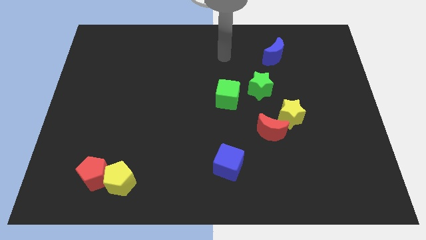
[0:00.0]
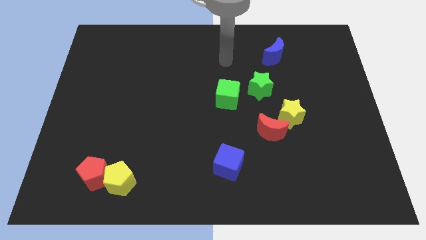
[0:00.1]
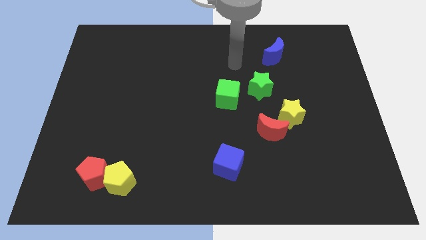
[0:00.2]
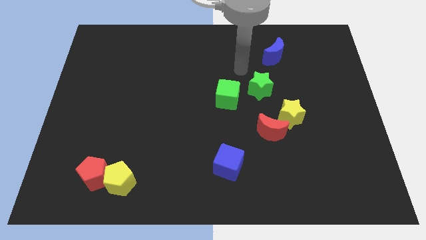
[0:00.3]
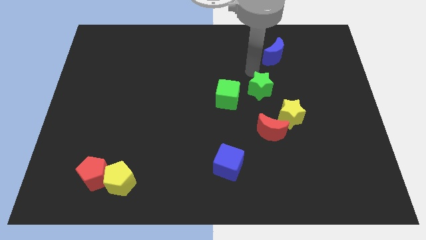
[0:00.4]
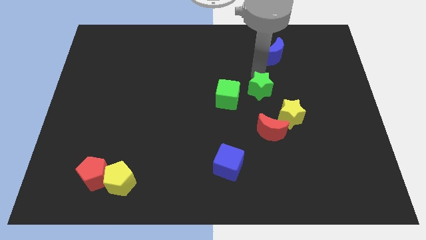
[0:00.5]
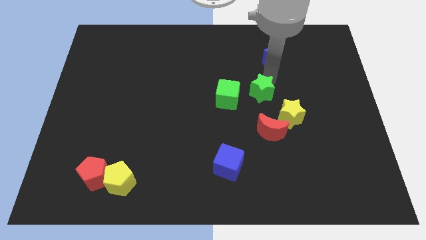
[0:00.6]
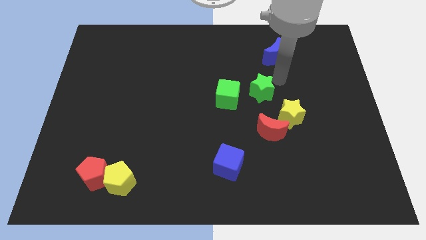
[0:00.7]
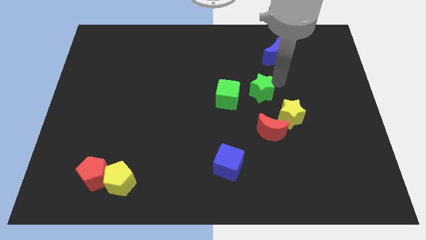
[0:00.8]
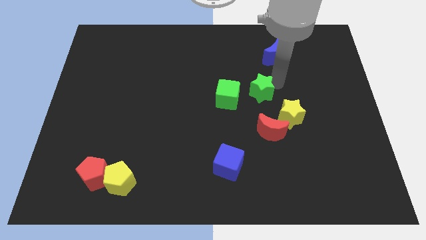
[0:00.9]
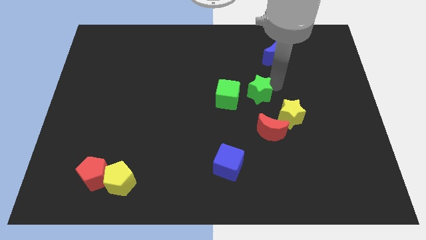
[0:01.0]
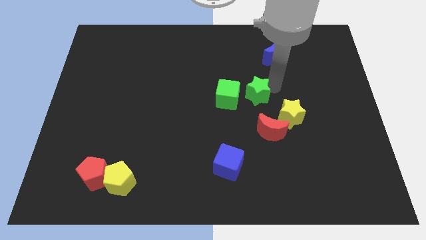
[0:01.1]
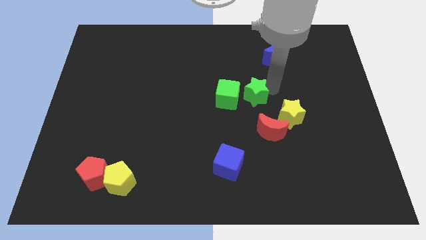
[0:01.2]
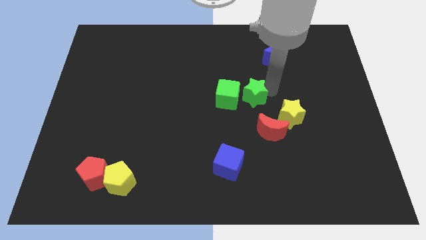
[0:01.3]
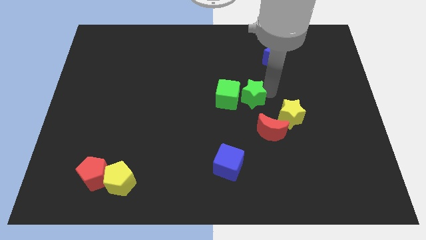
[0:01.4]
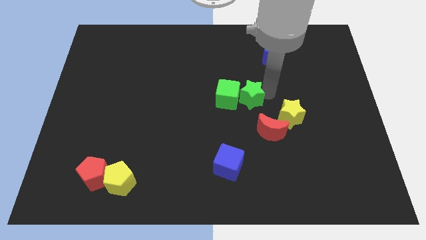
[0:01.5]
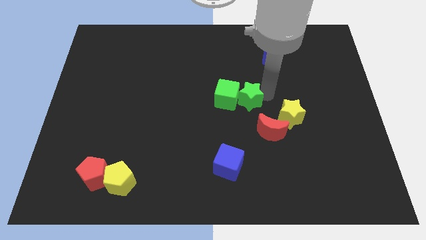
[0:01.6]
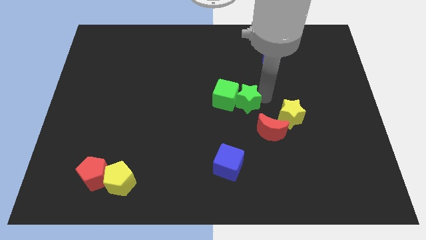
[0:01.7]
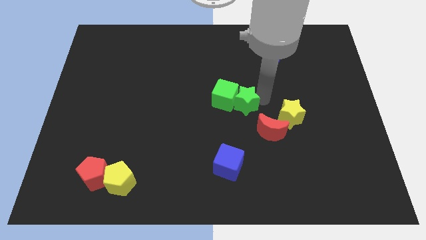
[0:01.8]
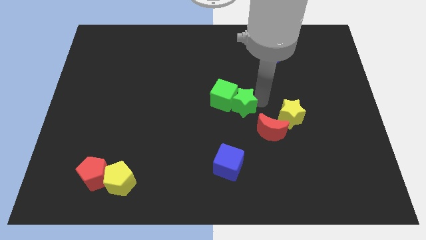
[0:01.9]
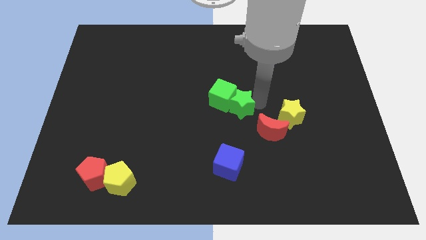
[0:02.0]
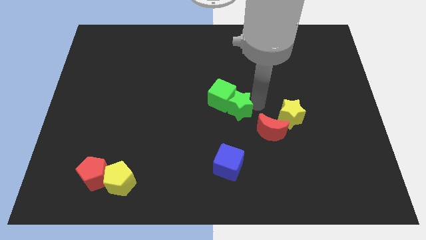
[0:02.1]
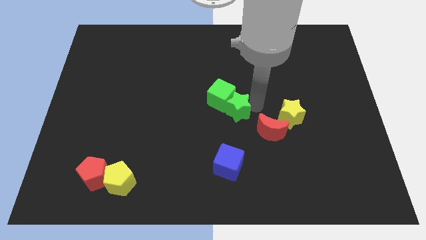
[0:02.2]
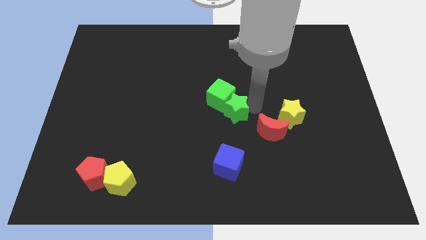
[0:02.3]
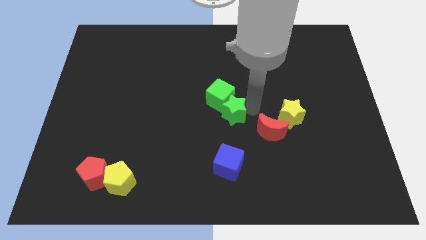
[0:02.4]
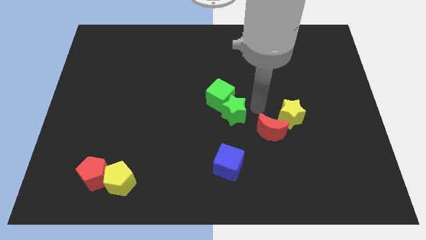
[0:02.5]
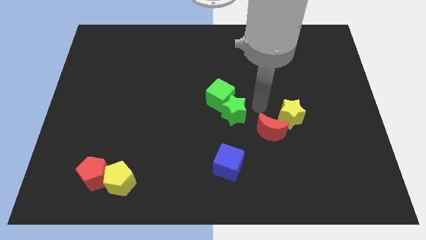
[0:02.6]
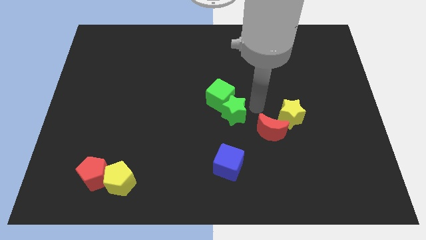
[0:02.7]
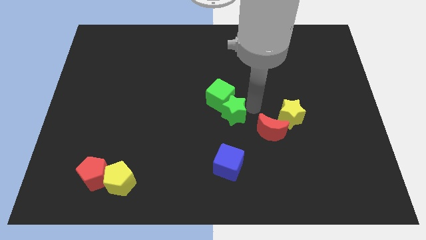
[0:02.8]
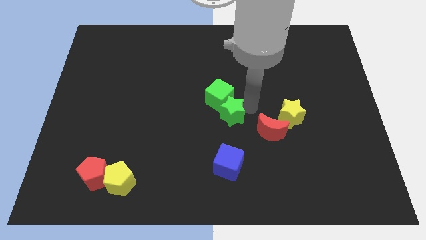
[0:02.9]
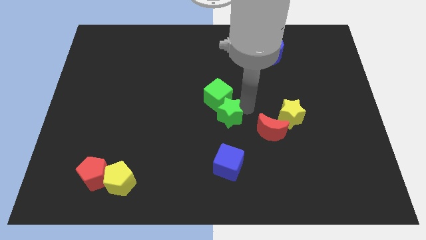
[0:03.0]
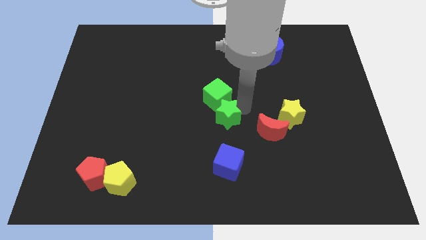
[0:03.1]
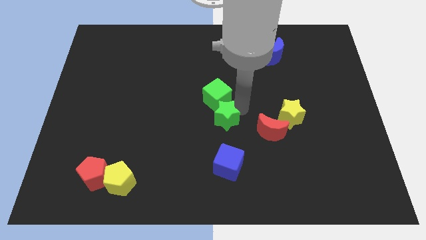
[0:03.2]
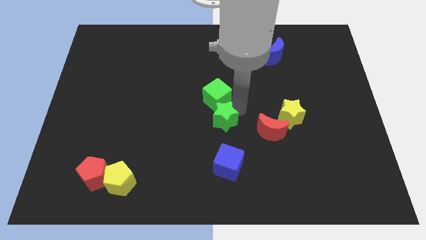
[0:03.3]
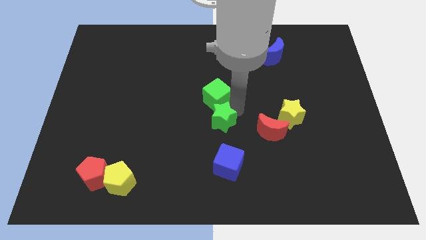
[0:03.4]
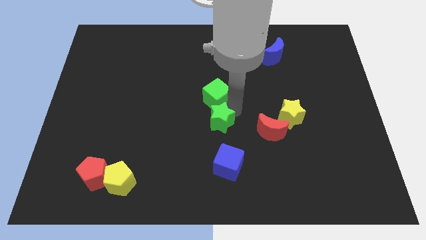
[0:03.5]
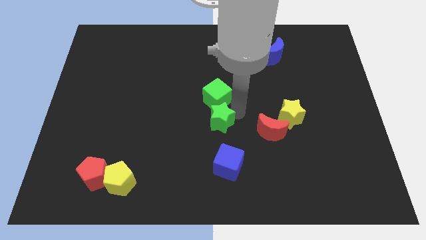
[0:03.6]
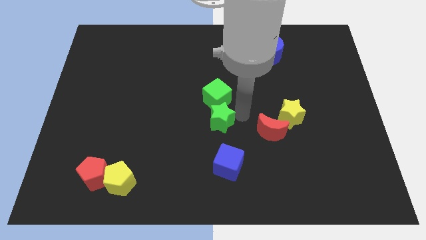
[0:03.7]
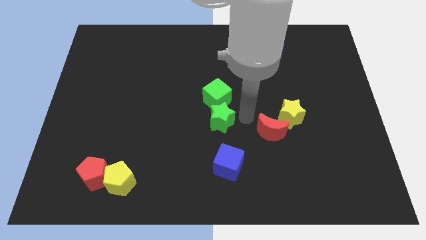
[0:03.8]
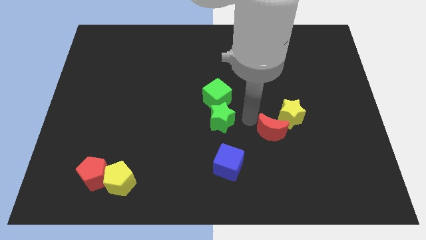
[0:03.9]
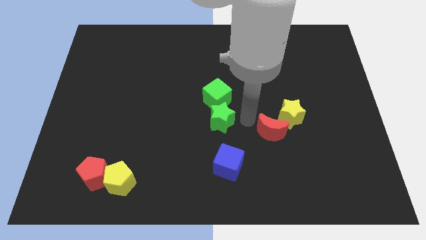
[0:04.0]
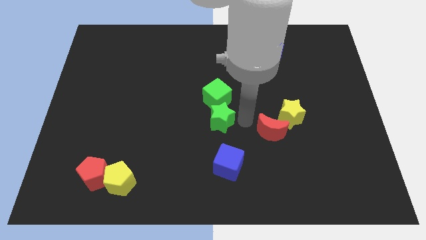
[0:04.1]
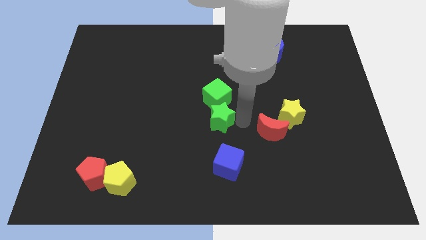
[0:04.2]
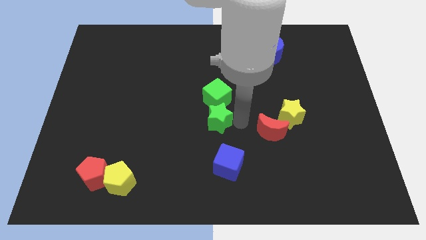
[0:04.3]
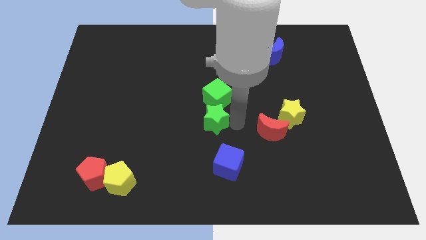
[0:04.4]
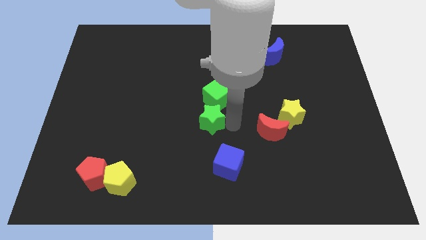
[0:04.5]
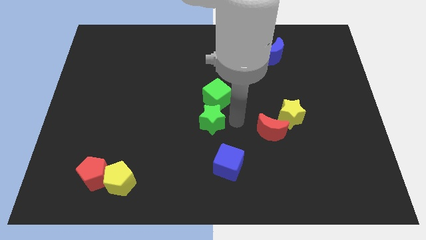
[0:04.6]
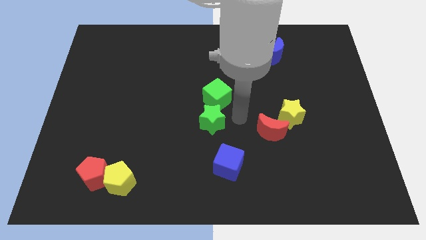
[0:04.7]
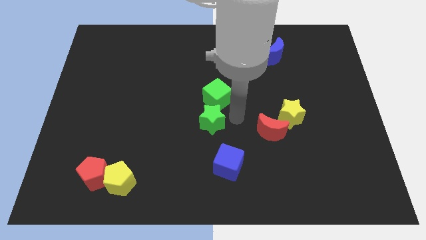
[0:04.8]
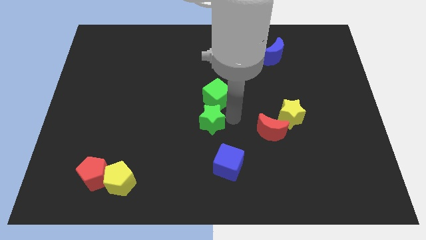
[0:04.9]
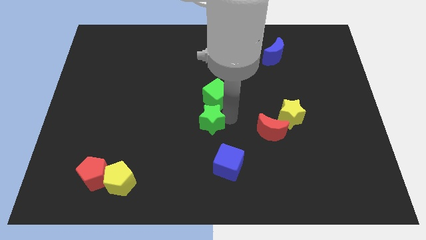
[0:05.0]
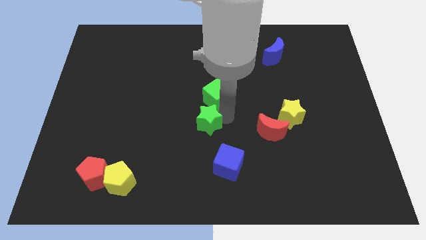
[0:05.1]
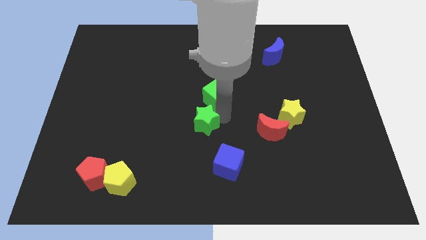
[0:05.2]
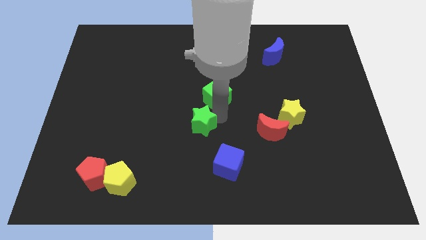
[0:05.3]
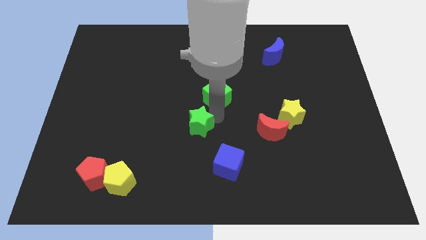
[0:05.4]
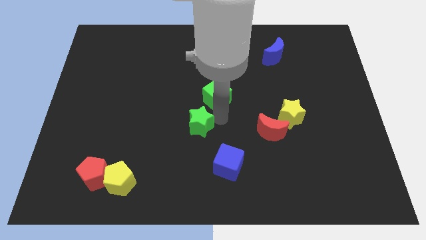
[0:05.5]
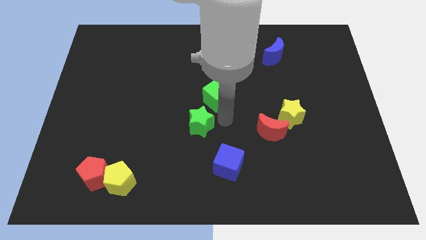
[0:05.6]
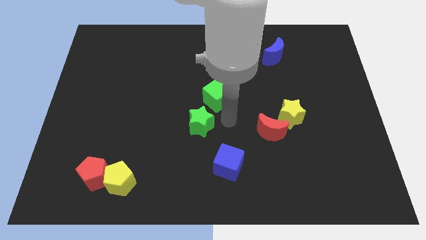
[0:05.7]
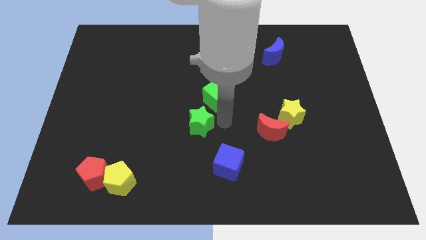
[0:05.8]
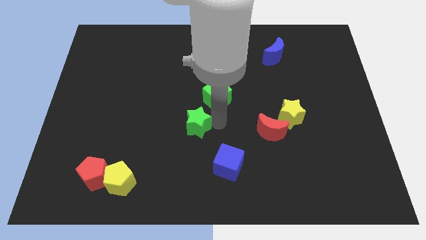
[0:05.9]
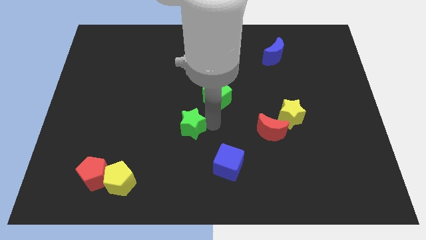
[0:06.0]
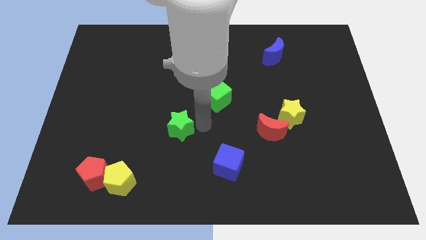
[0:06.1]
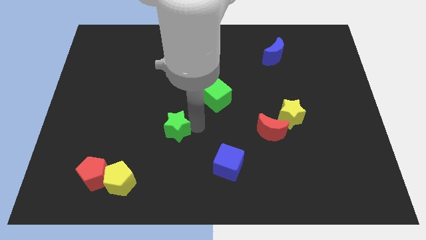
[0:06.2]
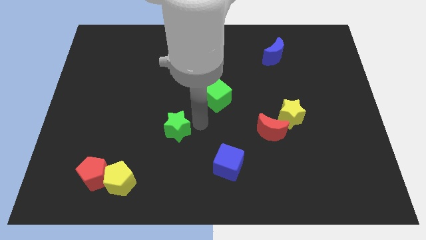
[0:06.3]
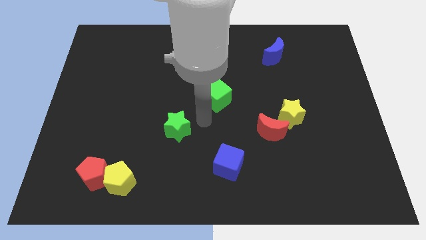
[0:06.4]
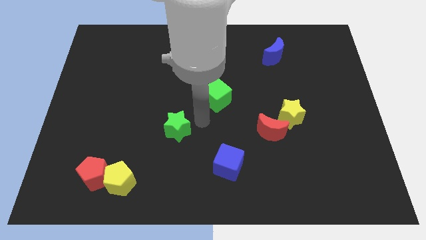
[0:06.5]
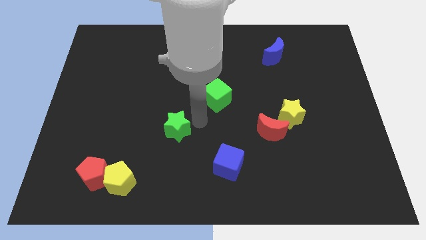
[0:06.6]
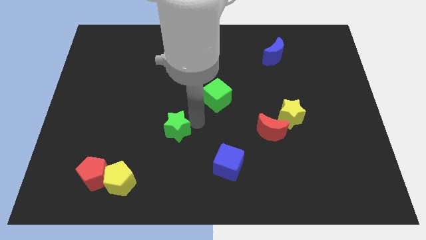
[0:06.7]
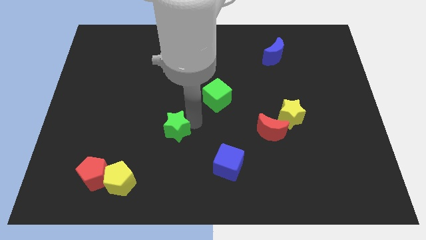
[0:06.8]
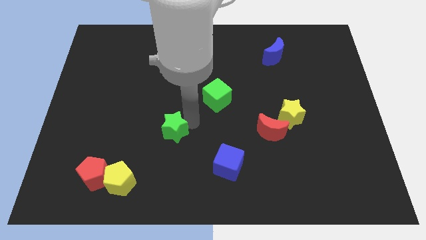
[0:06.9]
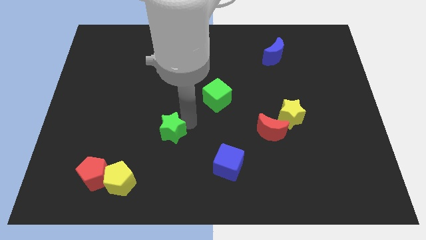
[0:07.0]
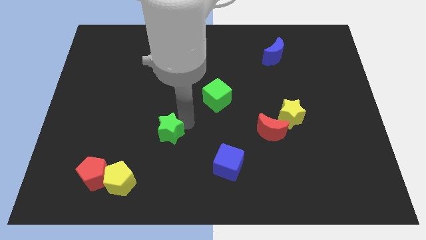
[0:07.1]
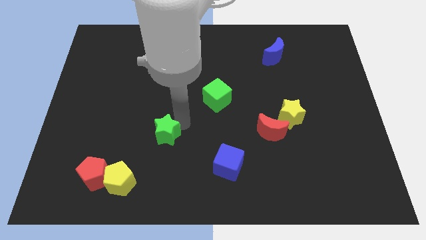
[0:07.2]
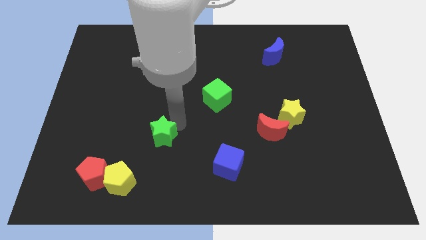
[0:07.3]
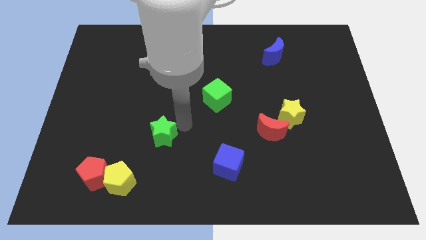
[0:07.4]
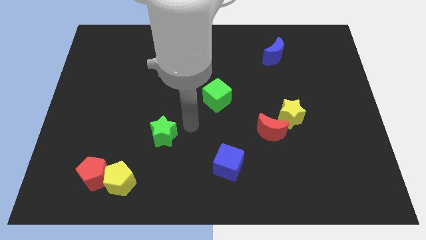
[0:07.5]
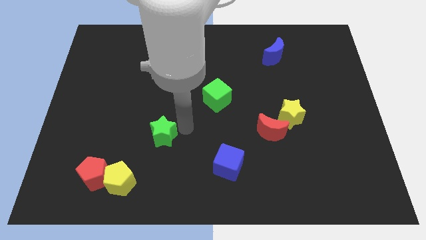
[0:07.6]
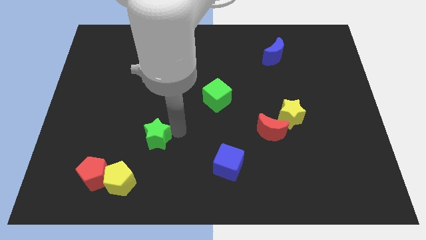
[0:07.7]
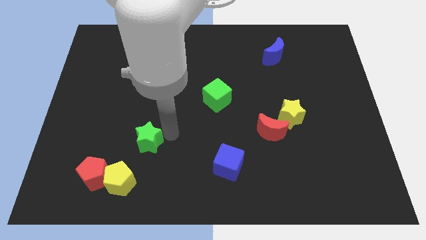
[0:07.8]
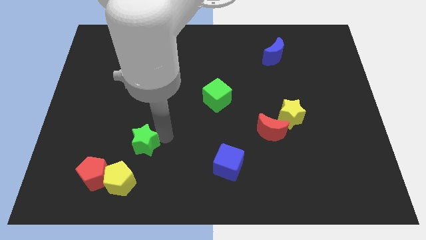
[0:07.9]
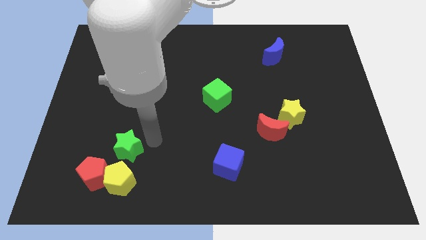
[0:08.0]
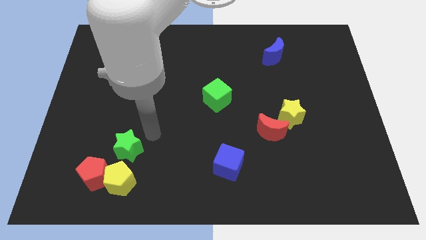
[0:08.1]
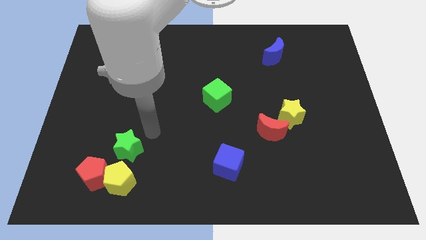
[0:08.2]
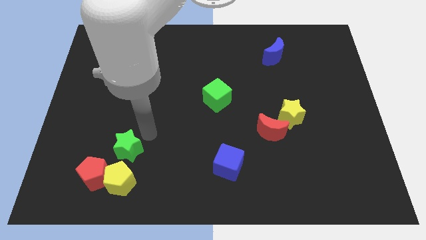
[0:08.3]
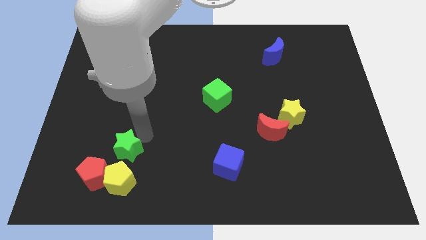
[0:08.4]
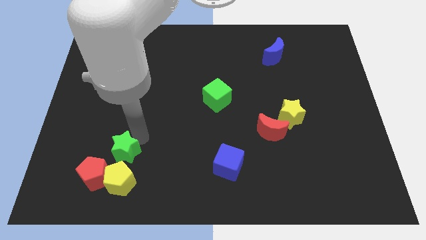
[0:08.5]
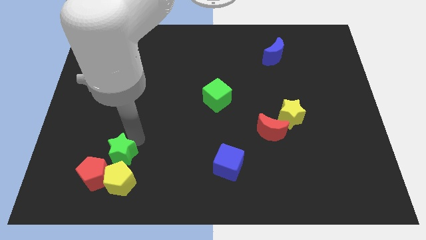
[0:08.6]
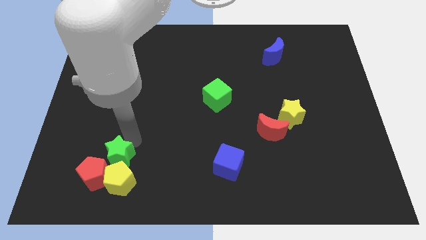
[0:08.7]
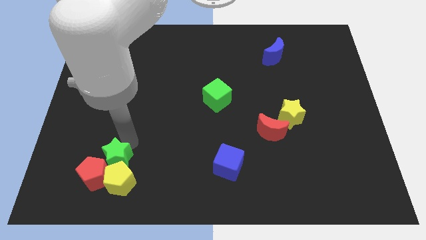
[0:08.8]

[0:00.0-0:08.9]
slide the green star towards the red pentagon
